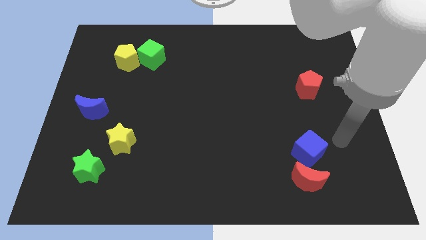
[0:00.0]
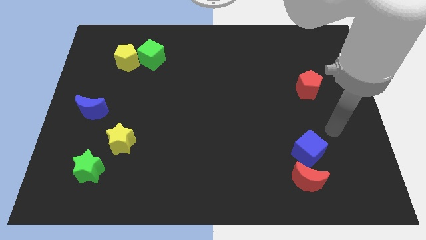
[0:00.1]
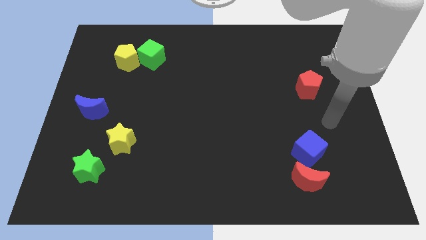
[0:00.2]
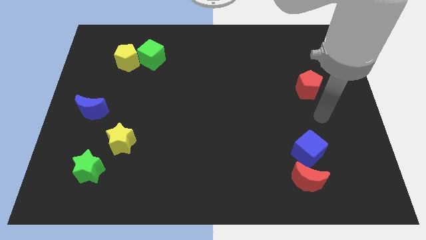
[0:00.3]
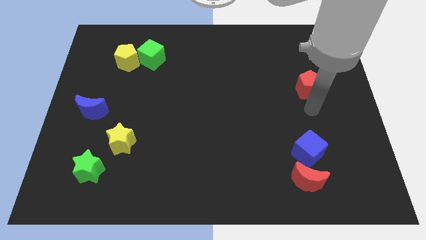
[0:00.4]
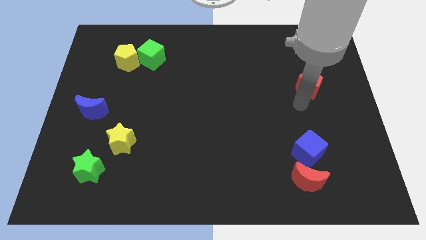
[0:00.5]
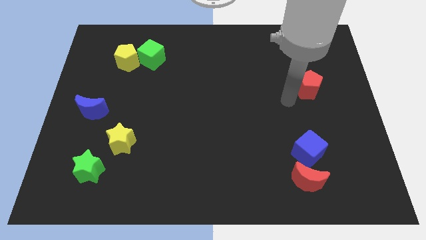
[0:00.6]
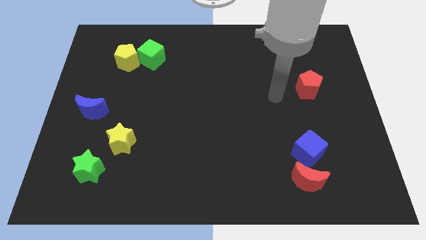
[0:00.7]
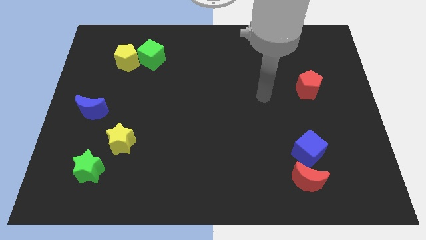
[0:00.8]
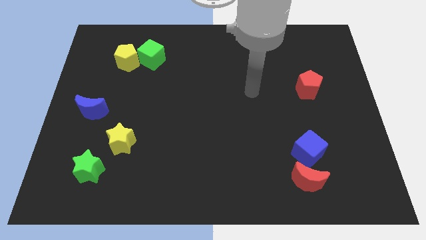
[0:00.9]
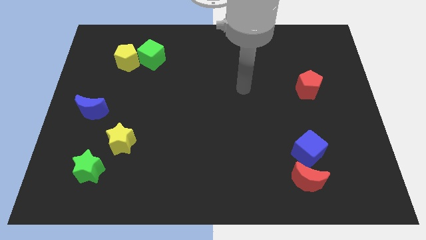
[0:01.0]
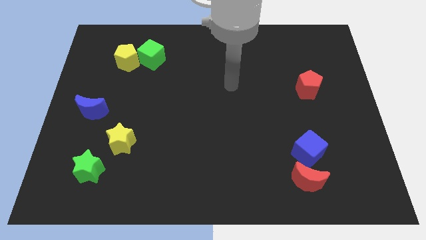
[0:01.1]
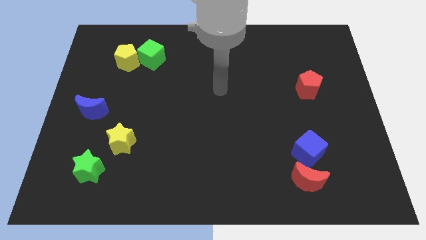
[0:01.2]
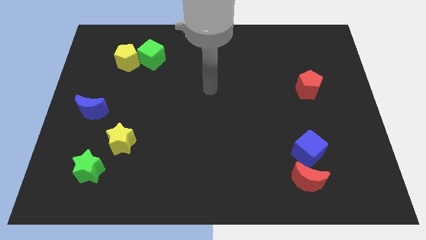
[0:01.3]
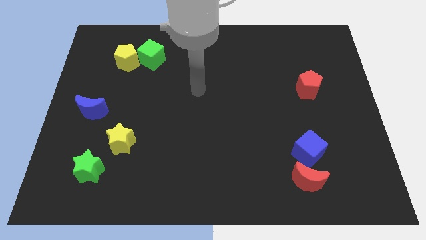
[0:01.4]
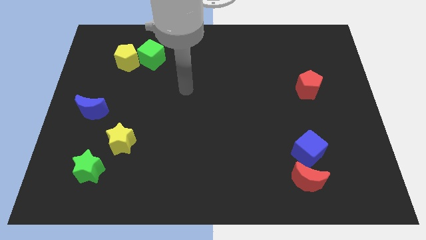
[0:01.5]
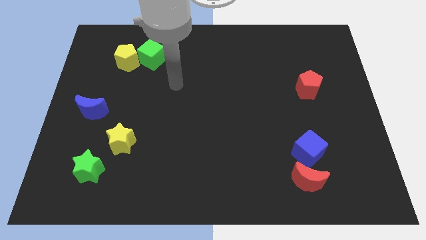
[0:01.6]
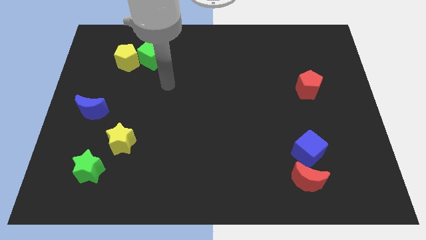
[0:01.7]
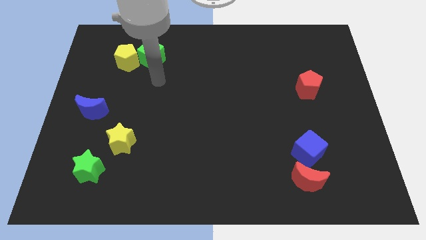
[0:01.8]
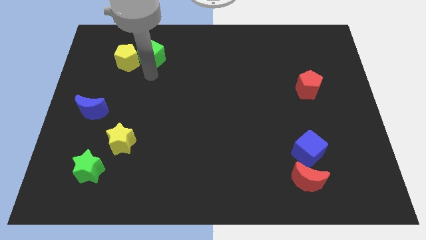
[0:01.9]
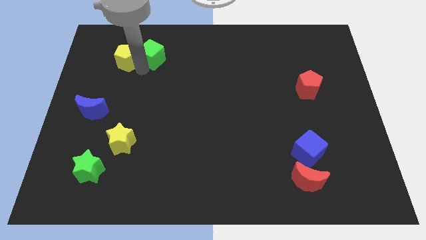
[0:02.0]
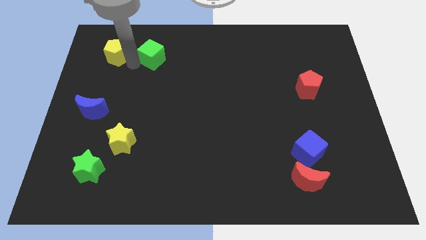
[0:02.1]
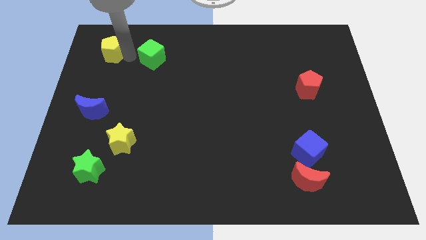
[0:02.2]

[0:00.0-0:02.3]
pull the green cube apart from the yellow pentagon

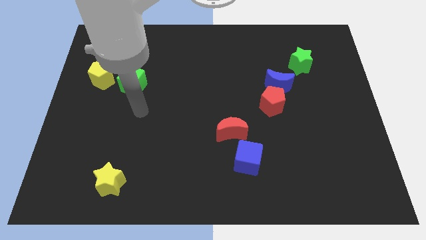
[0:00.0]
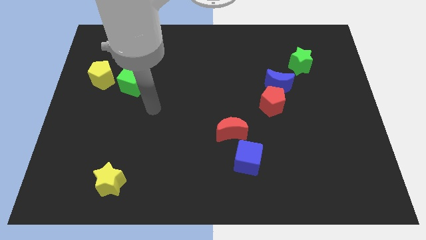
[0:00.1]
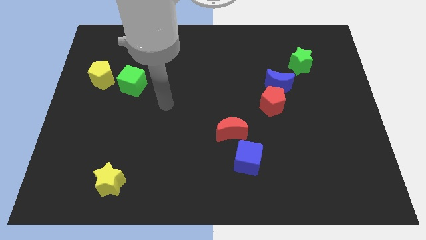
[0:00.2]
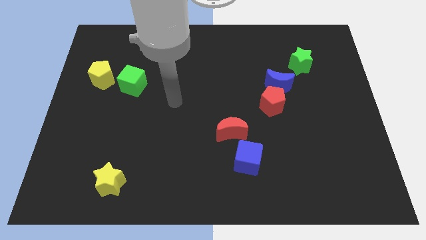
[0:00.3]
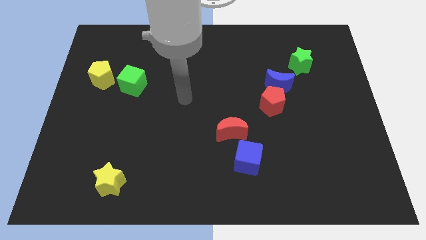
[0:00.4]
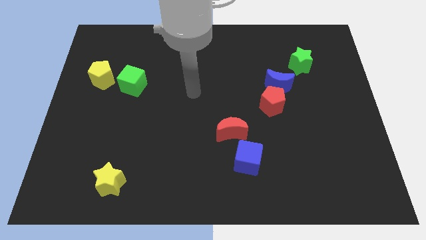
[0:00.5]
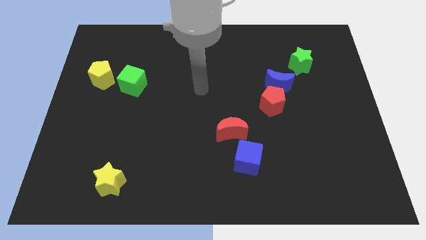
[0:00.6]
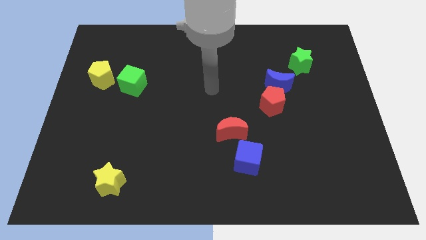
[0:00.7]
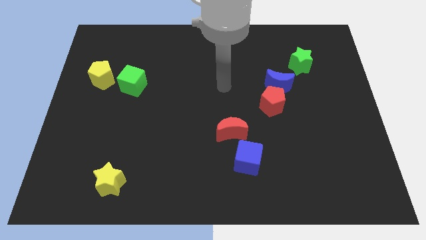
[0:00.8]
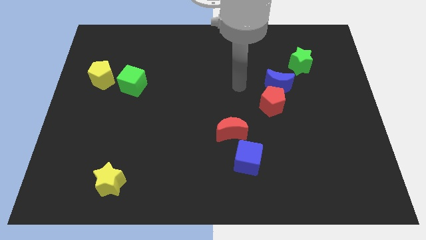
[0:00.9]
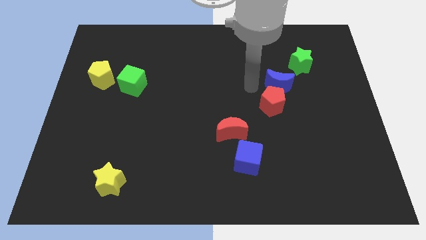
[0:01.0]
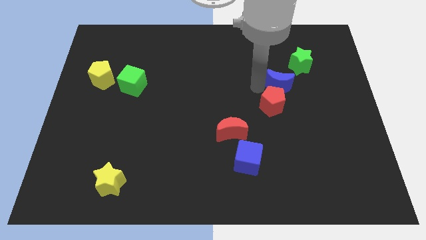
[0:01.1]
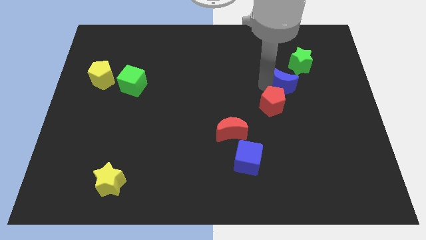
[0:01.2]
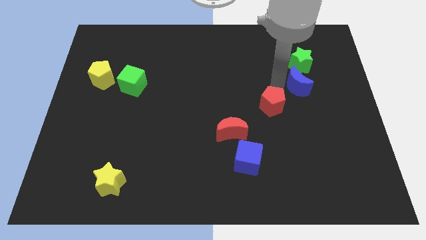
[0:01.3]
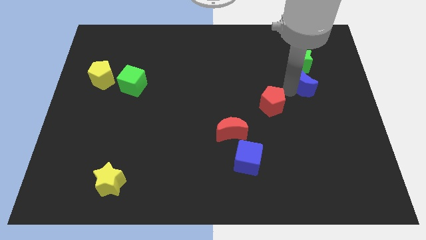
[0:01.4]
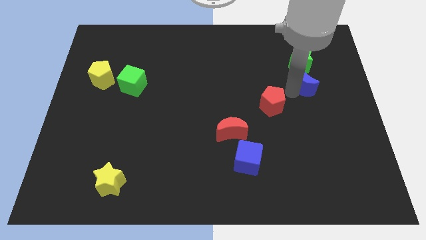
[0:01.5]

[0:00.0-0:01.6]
move the red pentagon away from the blue moon

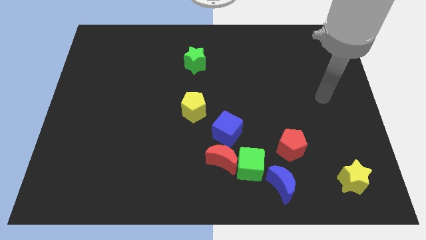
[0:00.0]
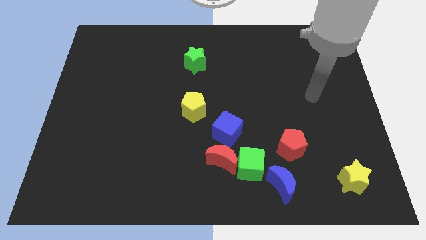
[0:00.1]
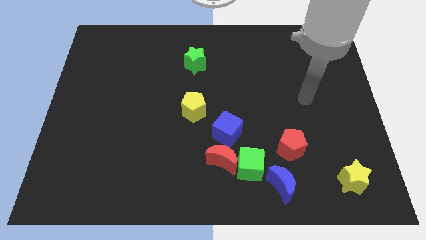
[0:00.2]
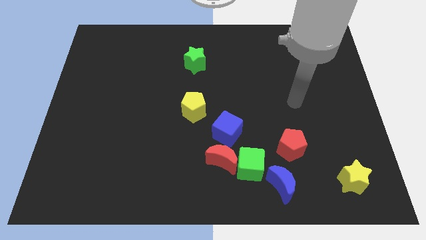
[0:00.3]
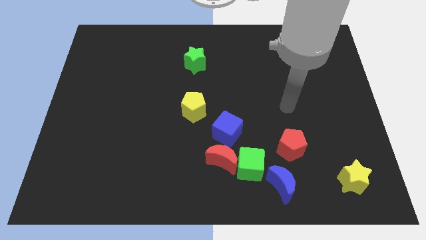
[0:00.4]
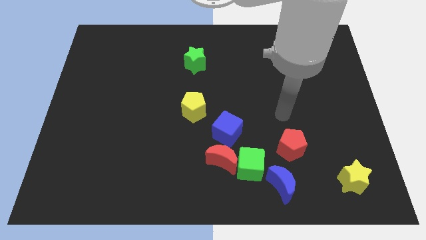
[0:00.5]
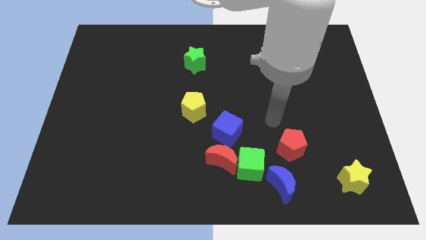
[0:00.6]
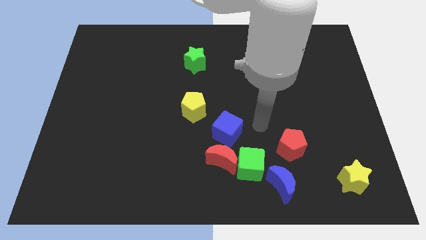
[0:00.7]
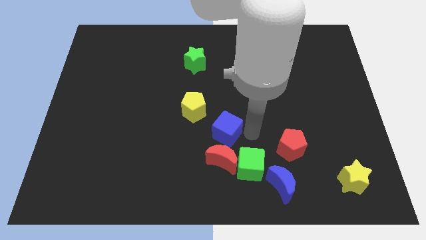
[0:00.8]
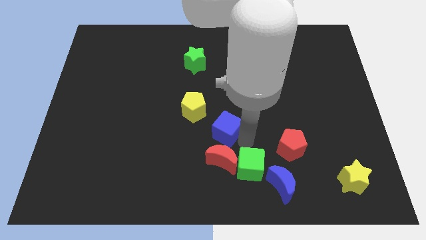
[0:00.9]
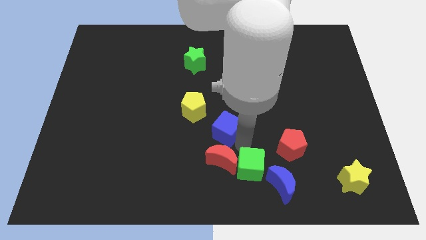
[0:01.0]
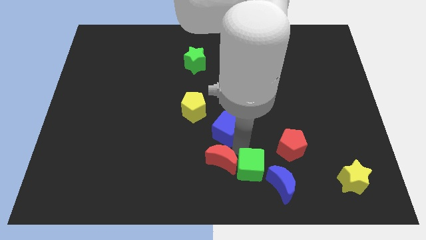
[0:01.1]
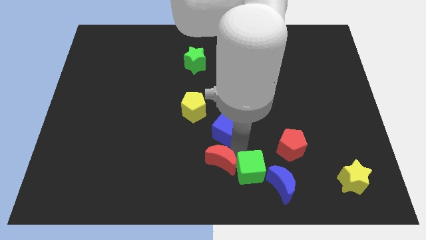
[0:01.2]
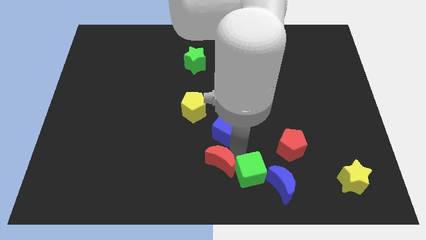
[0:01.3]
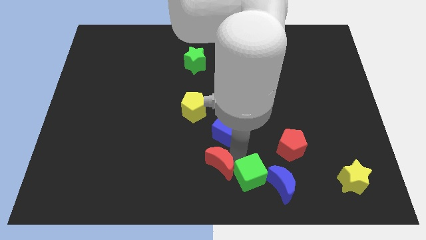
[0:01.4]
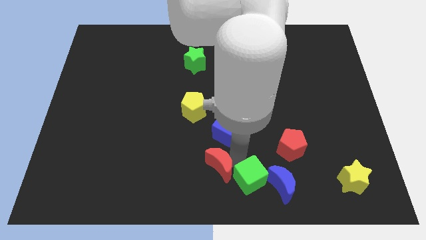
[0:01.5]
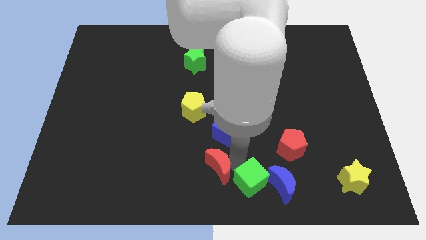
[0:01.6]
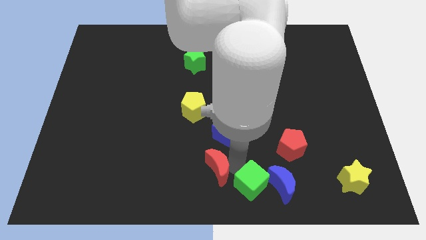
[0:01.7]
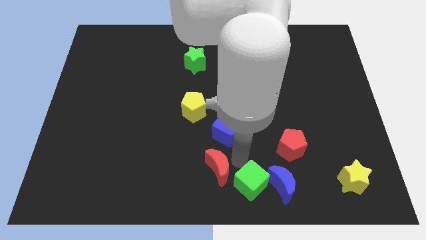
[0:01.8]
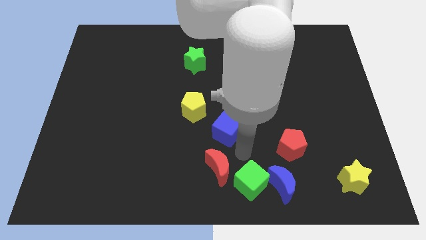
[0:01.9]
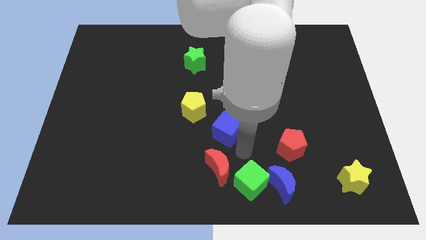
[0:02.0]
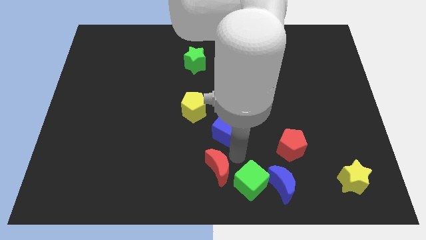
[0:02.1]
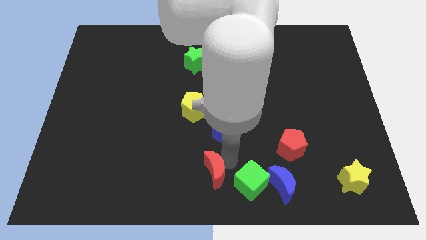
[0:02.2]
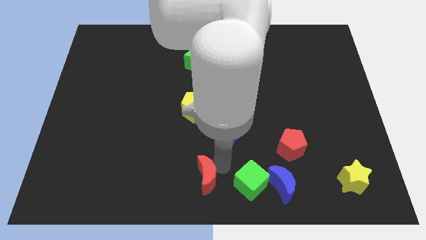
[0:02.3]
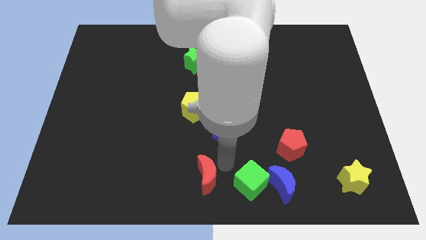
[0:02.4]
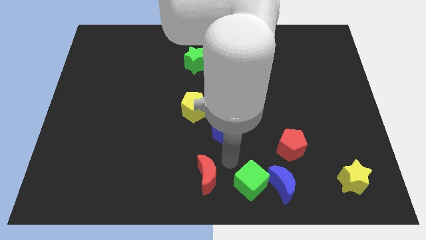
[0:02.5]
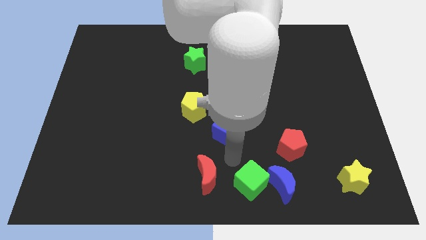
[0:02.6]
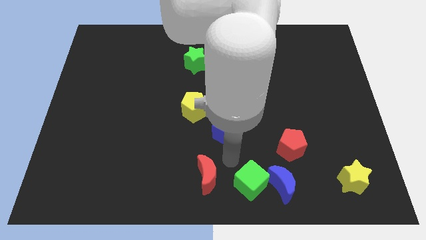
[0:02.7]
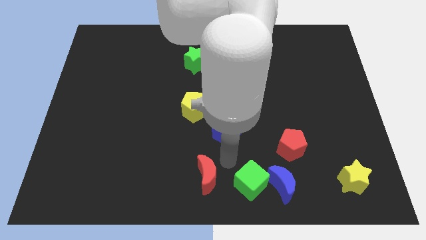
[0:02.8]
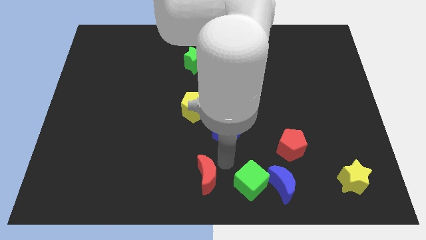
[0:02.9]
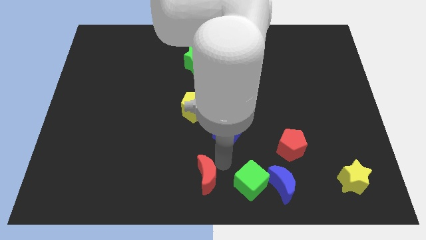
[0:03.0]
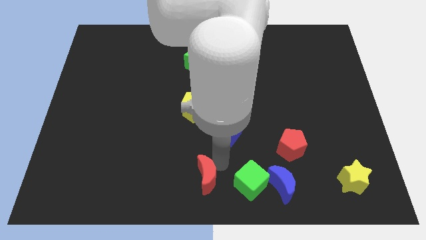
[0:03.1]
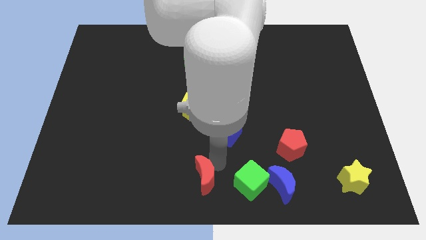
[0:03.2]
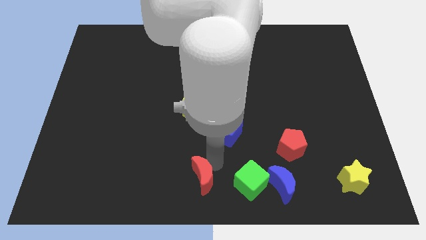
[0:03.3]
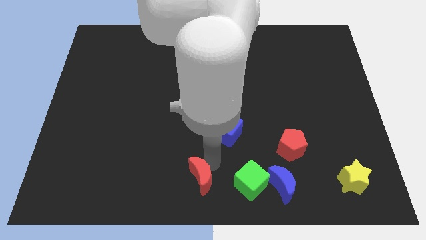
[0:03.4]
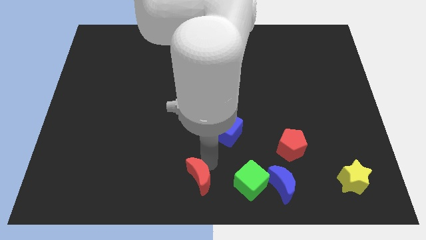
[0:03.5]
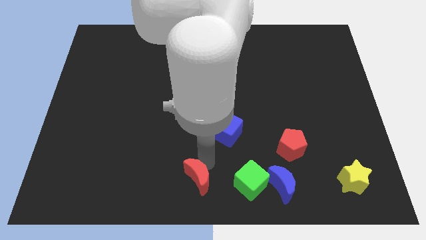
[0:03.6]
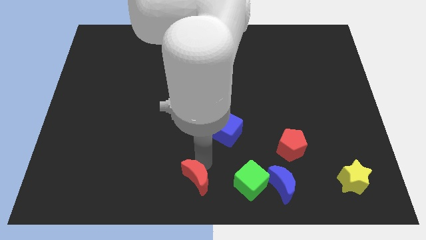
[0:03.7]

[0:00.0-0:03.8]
move the red moon away from the green cube and blue cube

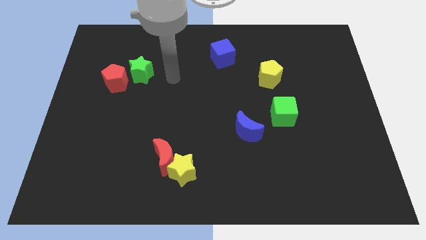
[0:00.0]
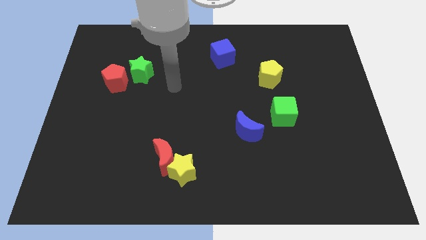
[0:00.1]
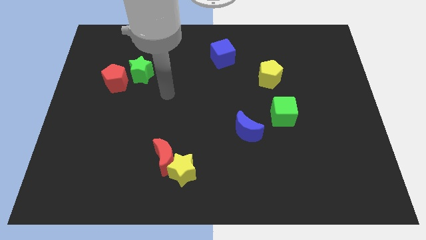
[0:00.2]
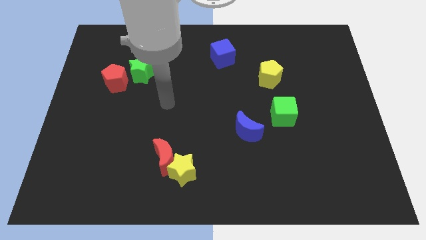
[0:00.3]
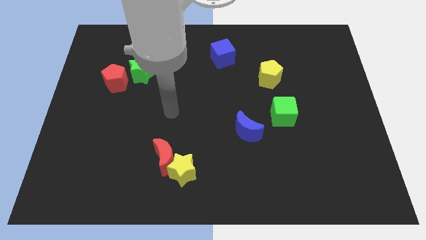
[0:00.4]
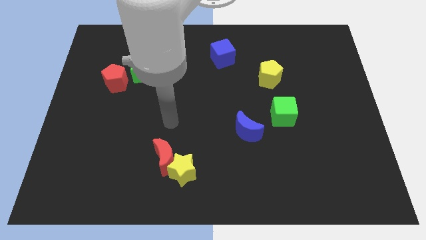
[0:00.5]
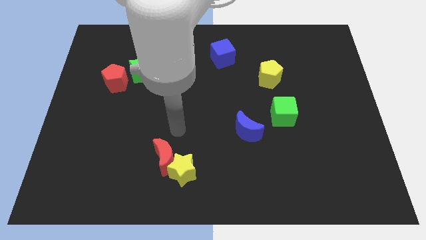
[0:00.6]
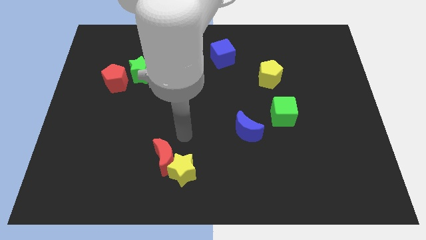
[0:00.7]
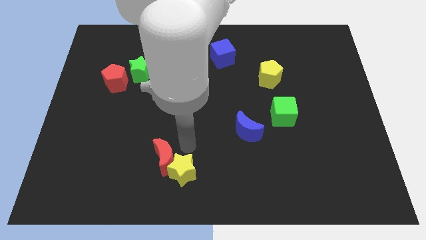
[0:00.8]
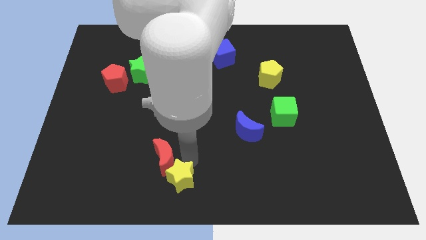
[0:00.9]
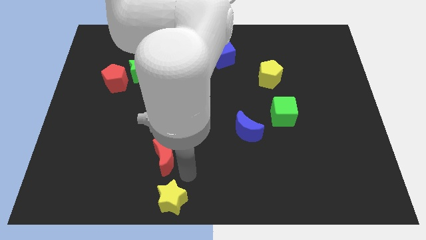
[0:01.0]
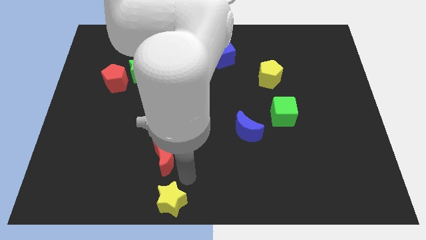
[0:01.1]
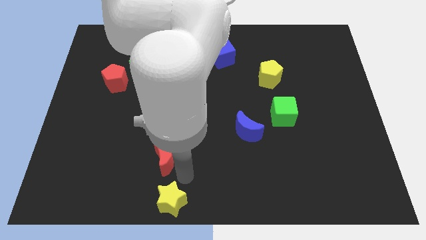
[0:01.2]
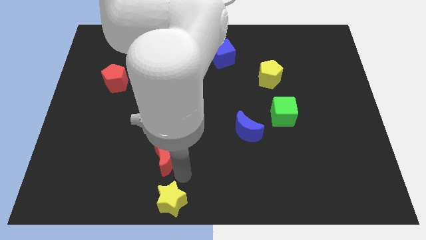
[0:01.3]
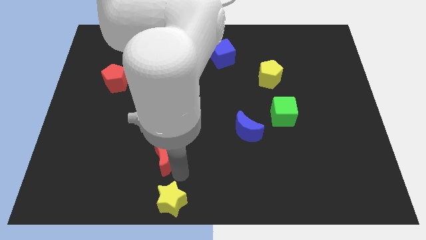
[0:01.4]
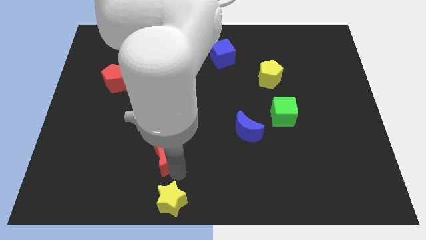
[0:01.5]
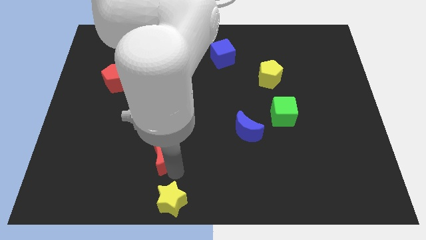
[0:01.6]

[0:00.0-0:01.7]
move the red moon away from the yellow star
